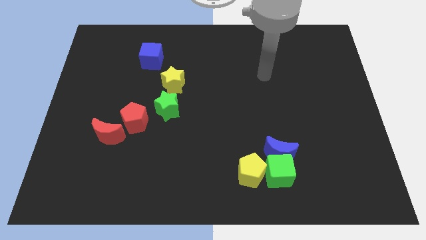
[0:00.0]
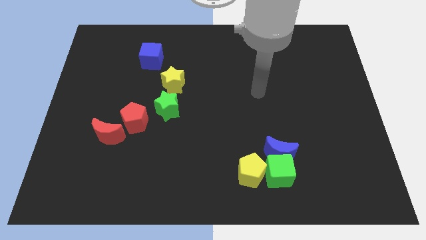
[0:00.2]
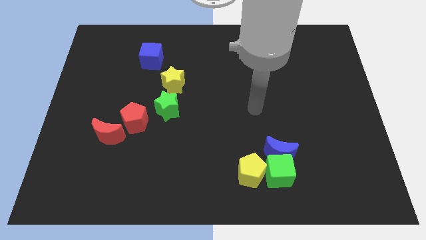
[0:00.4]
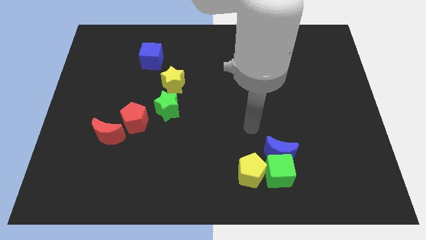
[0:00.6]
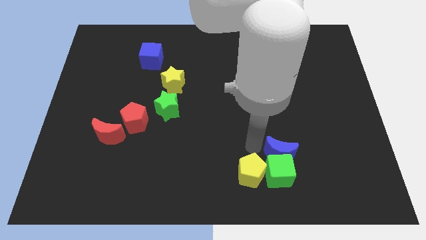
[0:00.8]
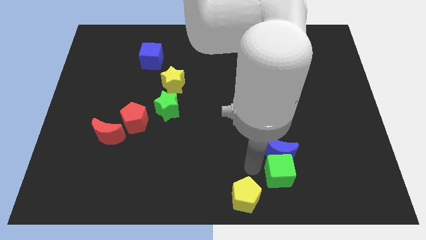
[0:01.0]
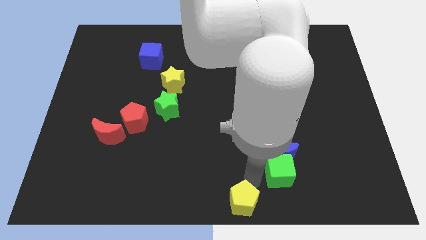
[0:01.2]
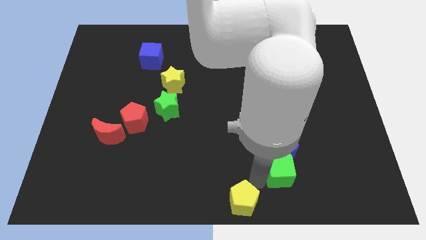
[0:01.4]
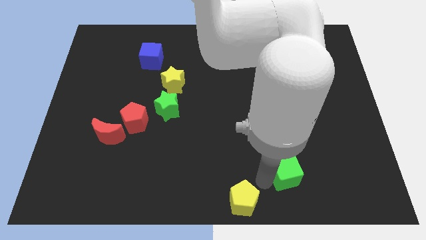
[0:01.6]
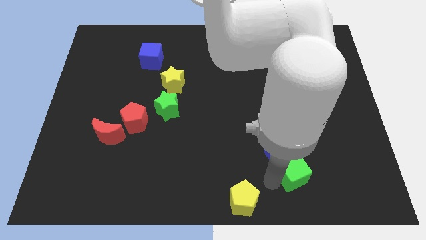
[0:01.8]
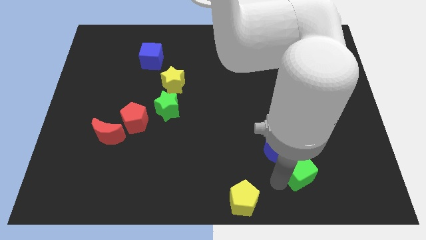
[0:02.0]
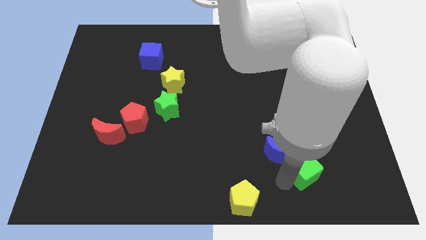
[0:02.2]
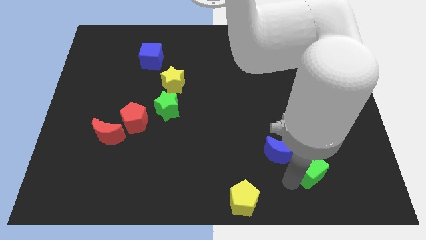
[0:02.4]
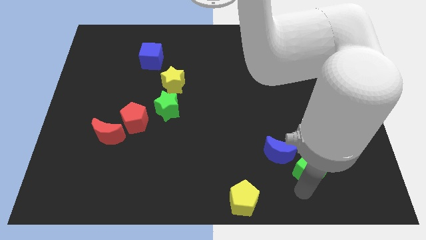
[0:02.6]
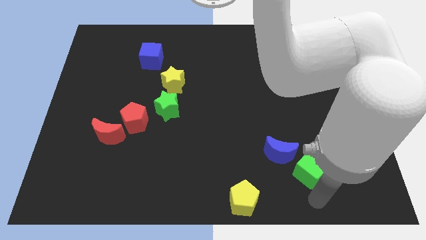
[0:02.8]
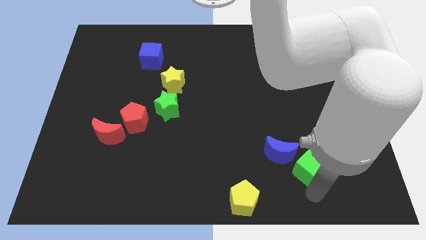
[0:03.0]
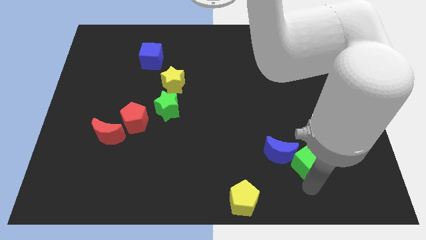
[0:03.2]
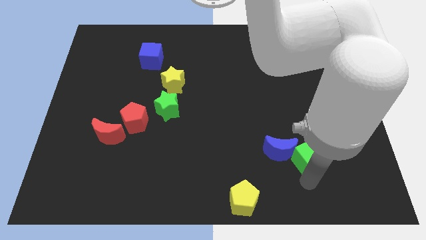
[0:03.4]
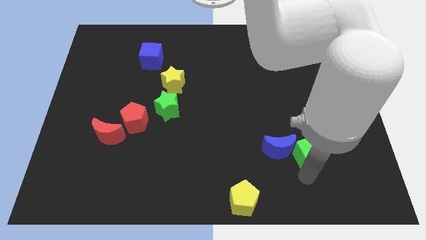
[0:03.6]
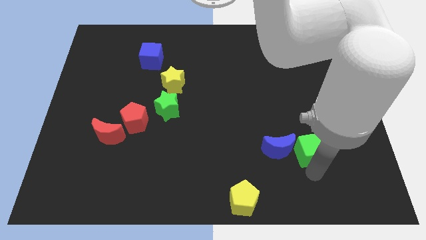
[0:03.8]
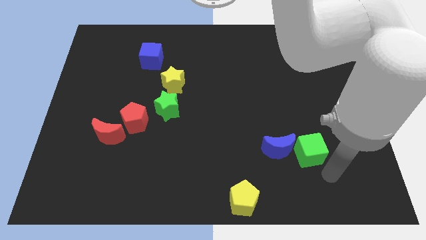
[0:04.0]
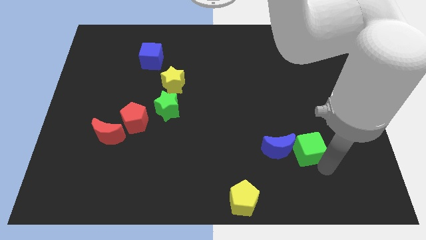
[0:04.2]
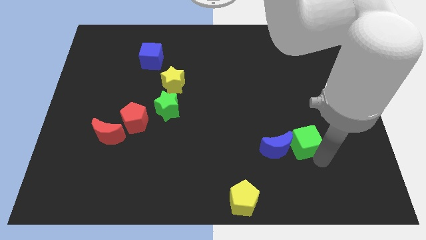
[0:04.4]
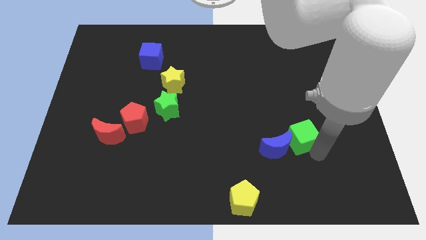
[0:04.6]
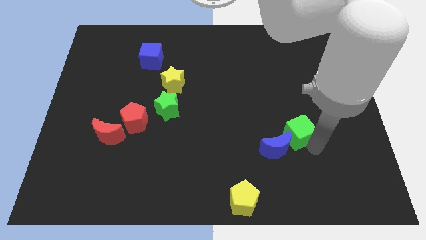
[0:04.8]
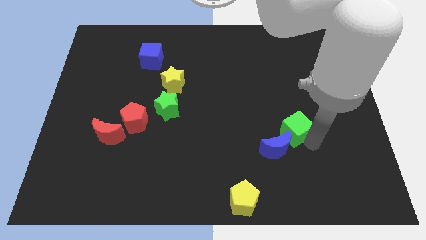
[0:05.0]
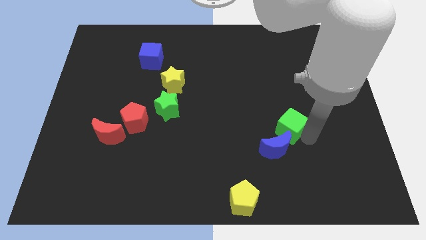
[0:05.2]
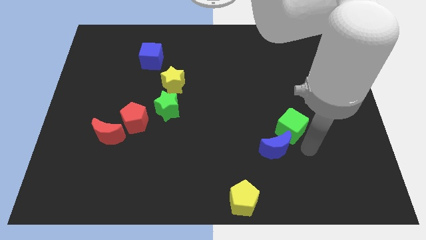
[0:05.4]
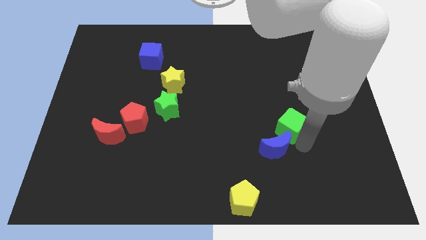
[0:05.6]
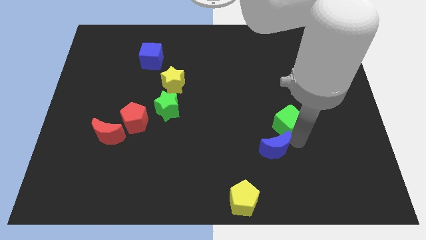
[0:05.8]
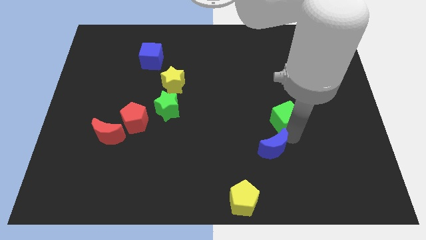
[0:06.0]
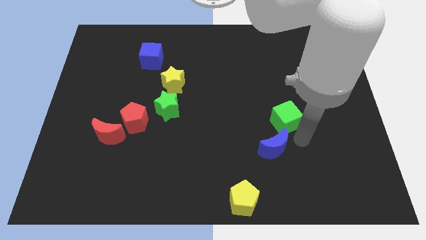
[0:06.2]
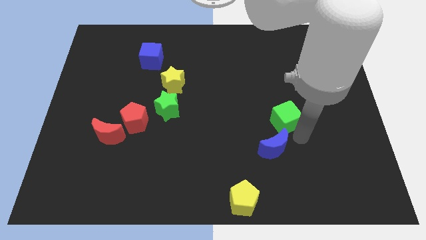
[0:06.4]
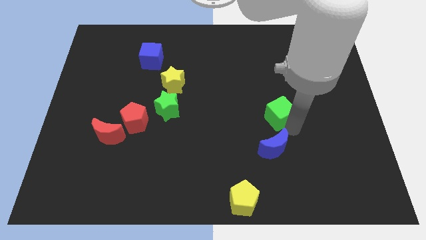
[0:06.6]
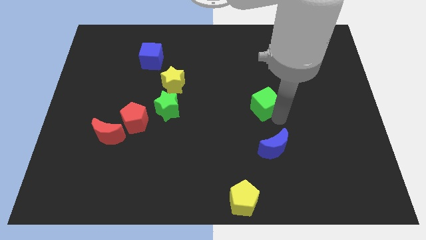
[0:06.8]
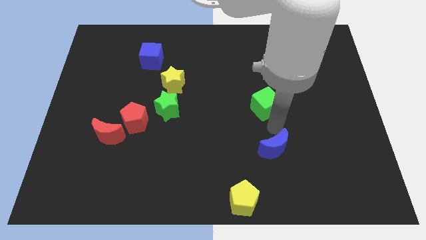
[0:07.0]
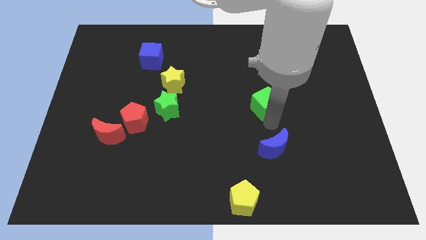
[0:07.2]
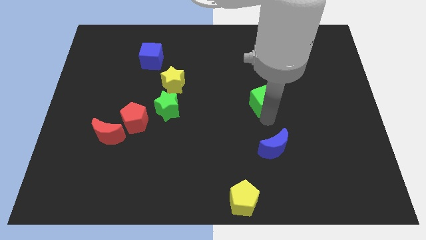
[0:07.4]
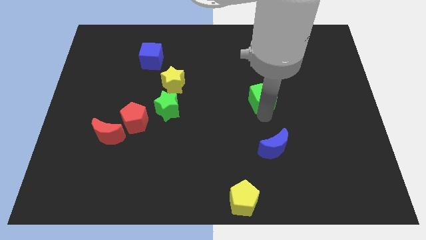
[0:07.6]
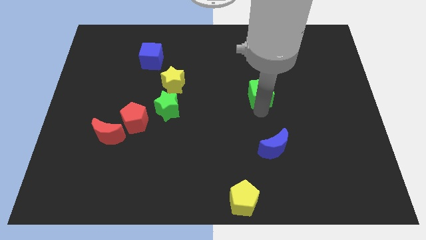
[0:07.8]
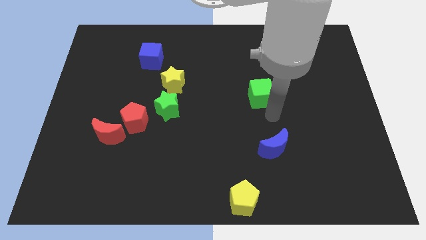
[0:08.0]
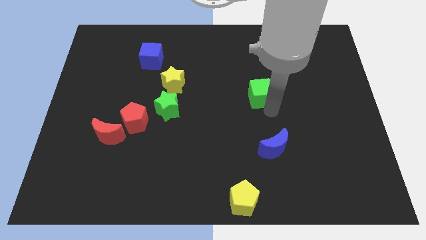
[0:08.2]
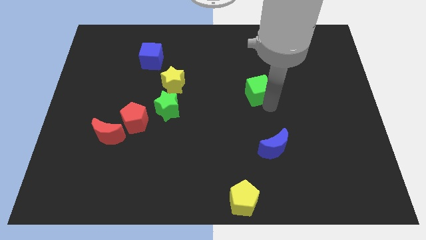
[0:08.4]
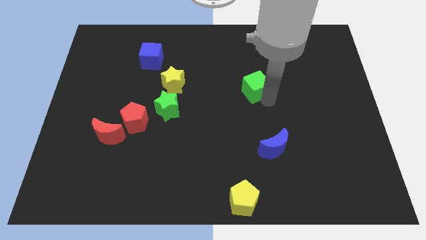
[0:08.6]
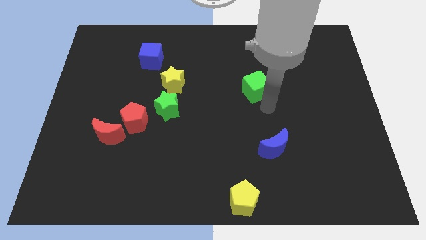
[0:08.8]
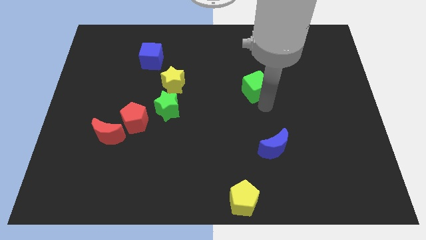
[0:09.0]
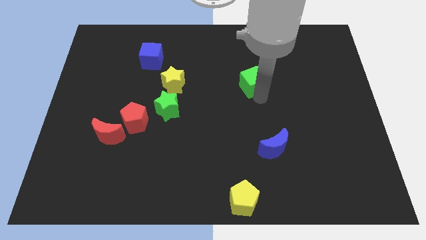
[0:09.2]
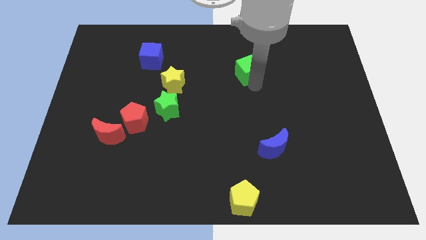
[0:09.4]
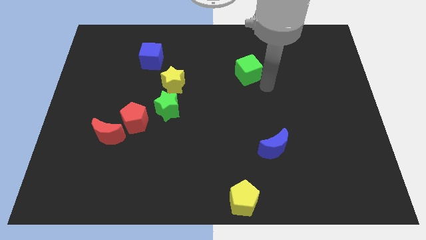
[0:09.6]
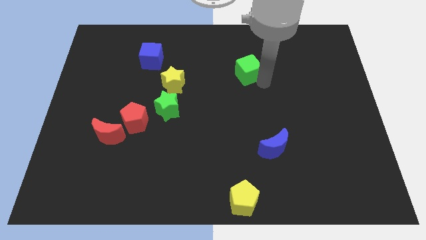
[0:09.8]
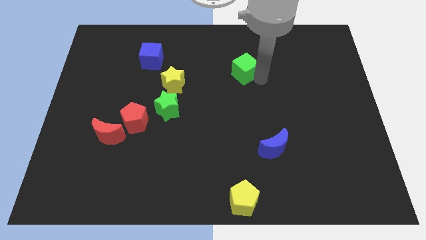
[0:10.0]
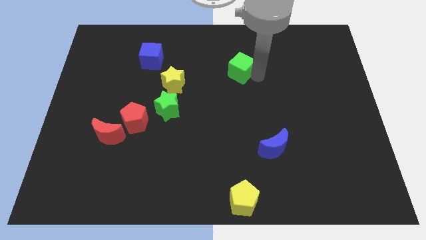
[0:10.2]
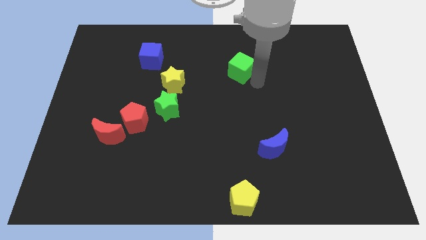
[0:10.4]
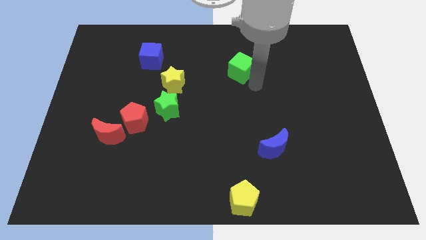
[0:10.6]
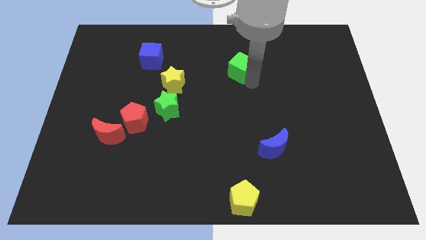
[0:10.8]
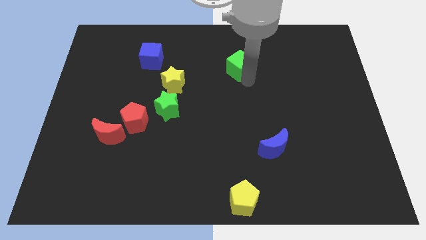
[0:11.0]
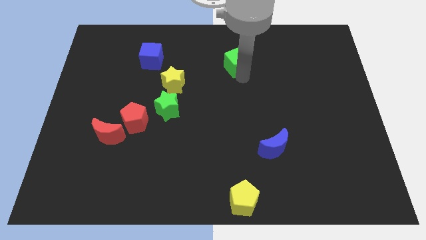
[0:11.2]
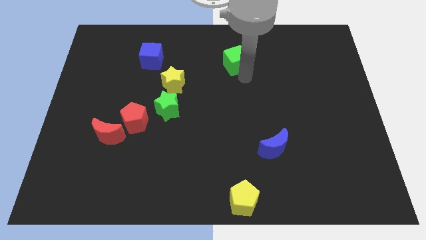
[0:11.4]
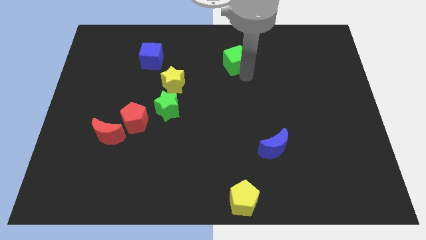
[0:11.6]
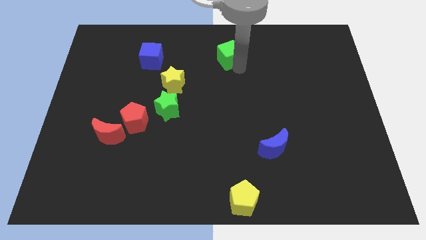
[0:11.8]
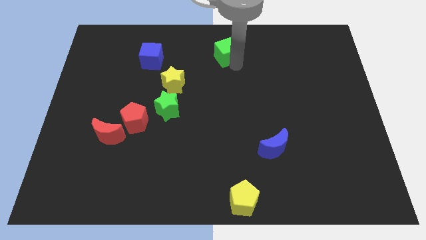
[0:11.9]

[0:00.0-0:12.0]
put the green cube to the top
